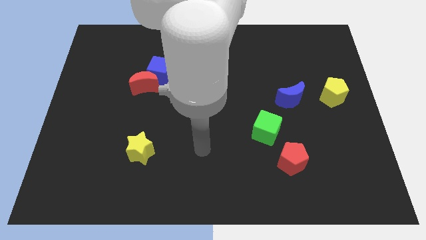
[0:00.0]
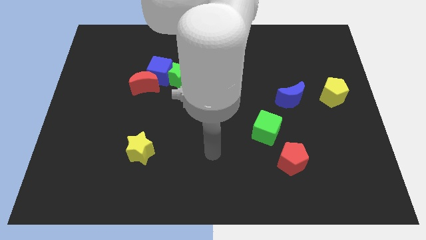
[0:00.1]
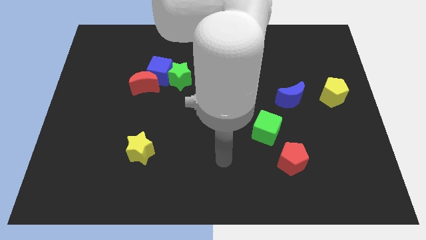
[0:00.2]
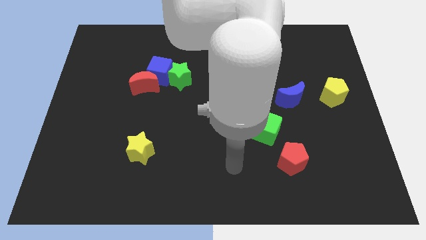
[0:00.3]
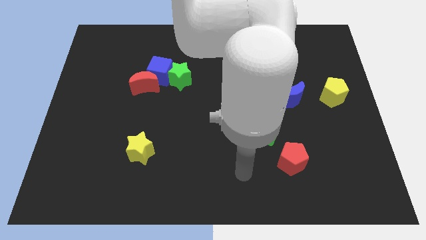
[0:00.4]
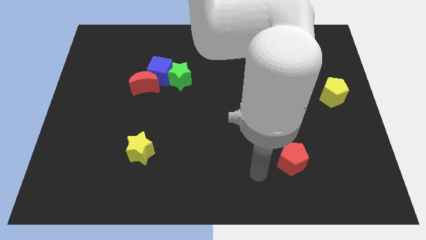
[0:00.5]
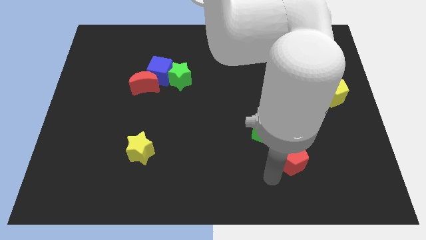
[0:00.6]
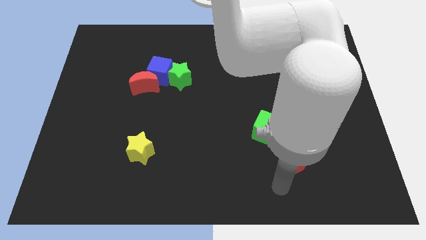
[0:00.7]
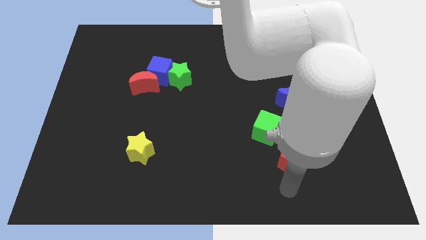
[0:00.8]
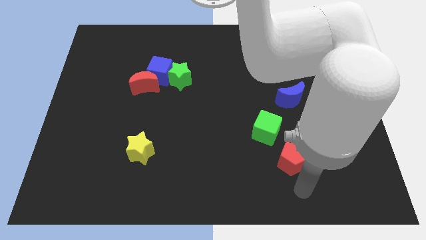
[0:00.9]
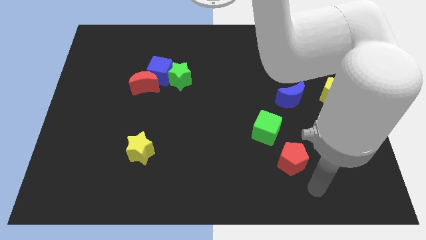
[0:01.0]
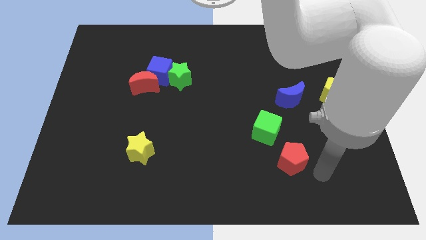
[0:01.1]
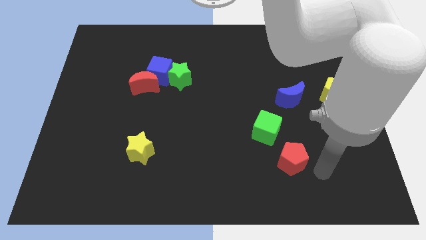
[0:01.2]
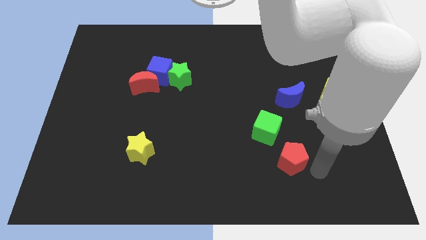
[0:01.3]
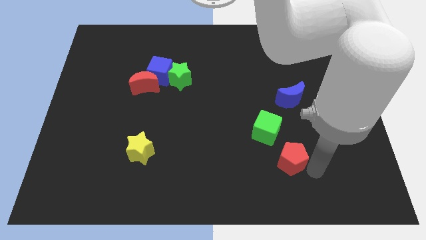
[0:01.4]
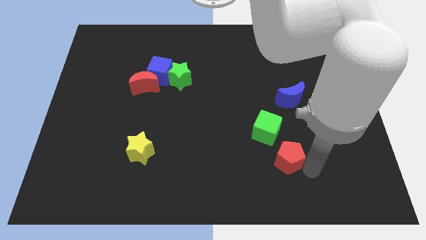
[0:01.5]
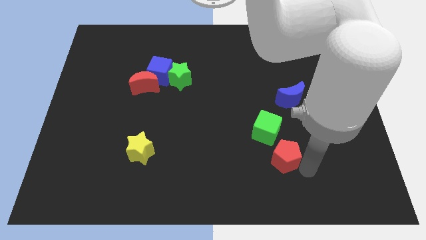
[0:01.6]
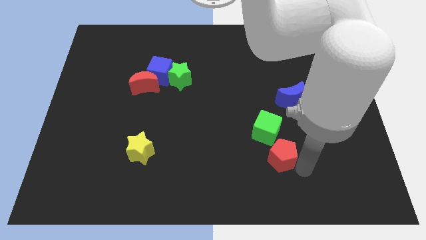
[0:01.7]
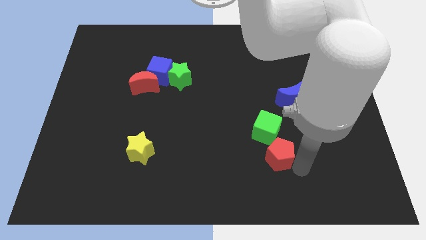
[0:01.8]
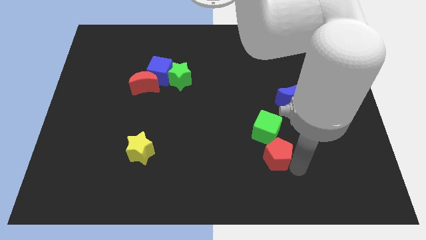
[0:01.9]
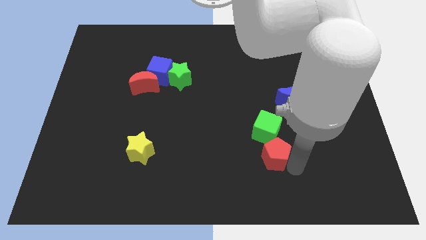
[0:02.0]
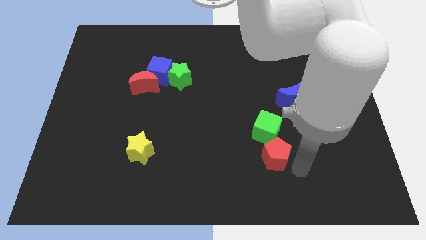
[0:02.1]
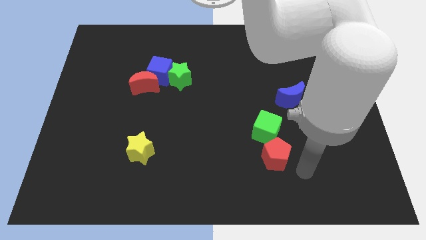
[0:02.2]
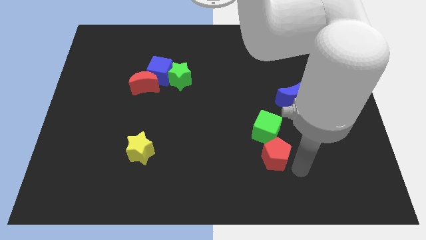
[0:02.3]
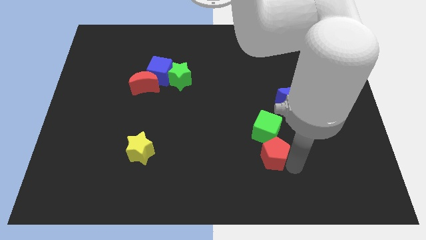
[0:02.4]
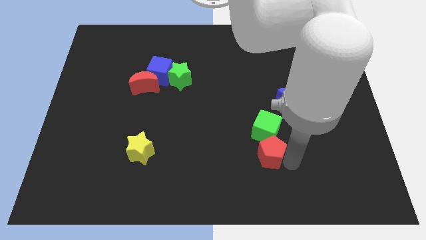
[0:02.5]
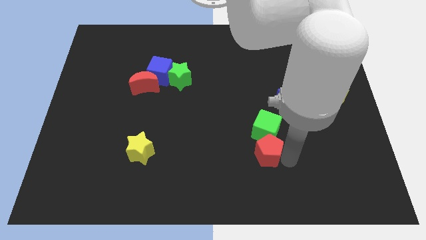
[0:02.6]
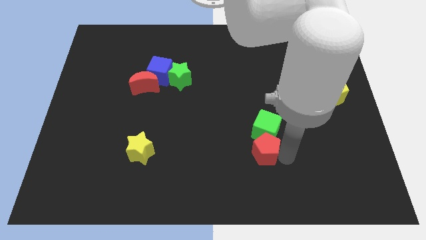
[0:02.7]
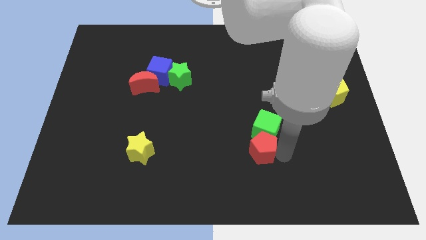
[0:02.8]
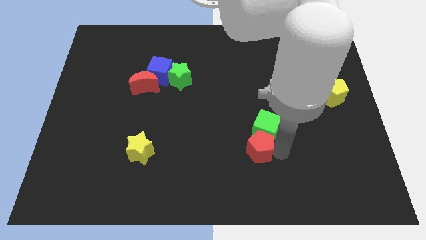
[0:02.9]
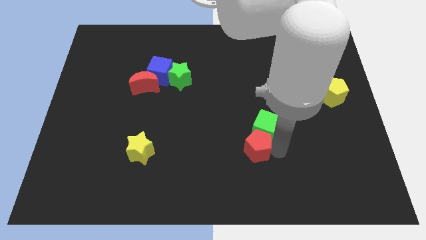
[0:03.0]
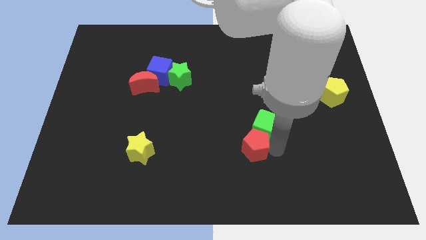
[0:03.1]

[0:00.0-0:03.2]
move the red pentagon to the left a little bit

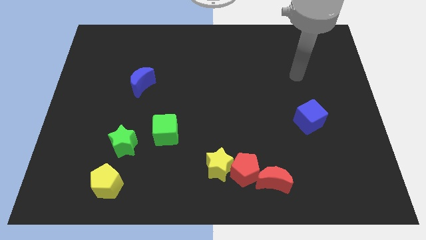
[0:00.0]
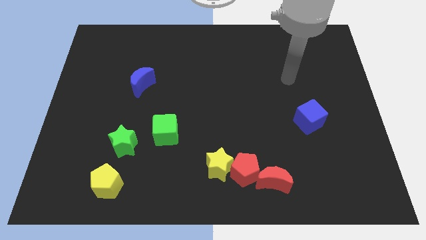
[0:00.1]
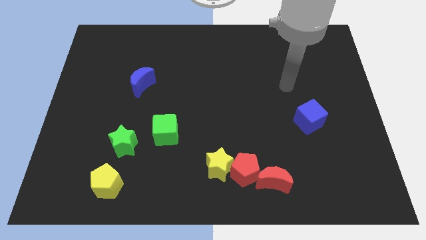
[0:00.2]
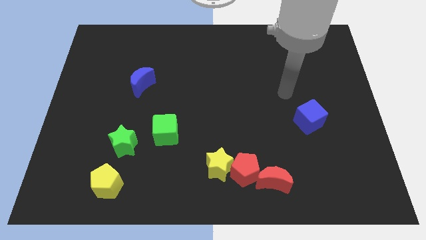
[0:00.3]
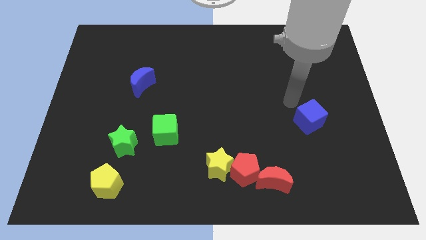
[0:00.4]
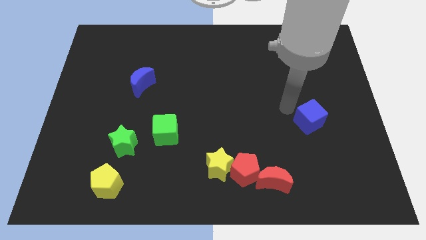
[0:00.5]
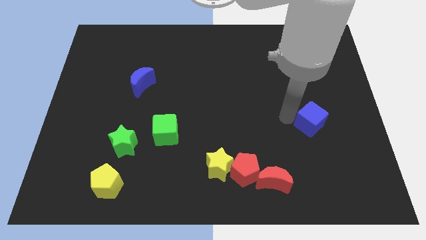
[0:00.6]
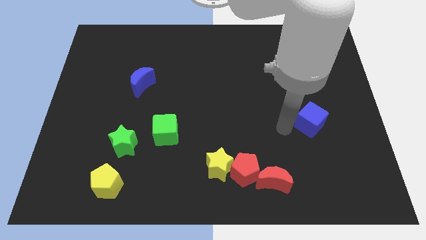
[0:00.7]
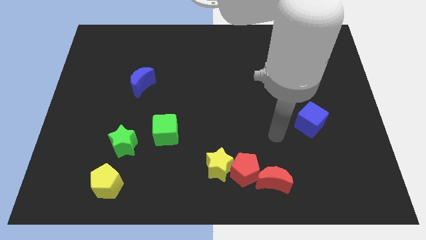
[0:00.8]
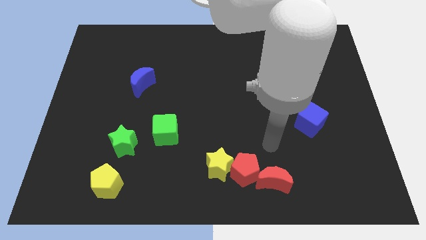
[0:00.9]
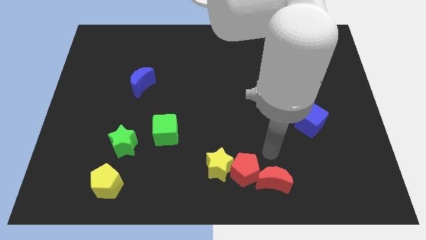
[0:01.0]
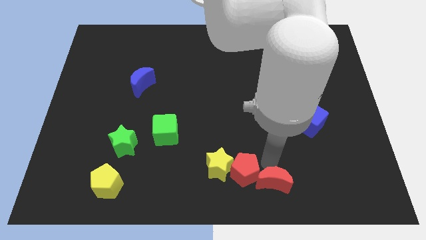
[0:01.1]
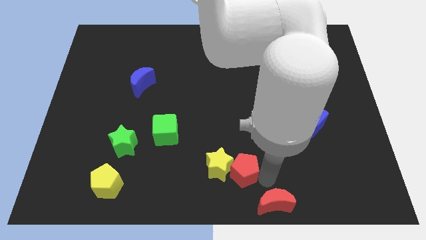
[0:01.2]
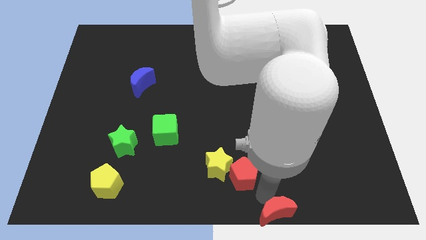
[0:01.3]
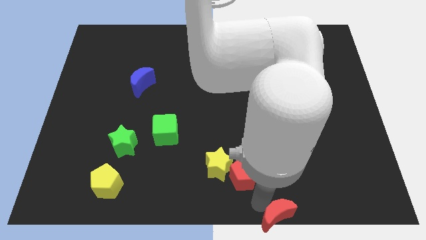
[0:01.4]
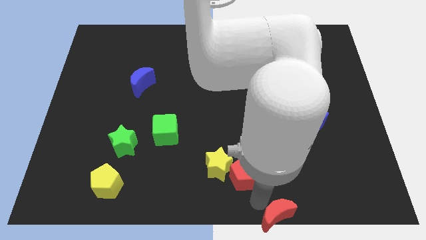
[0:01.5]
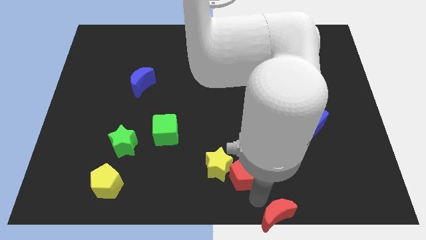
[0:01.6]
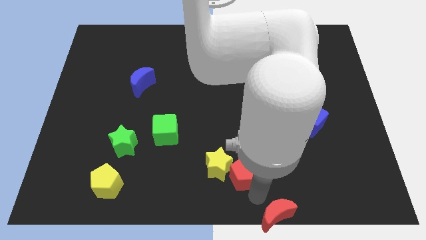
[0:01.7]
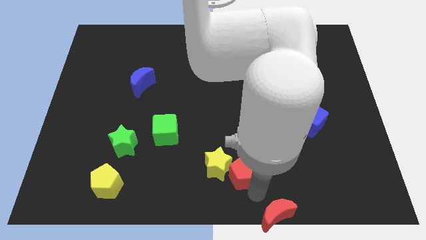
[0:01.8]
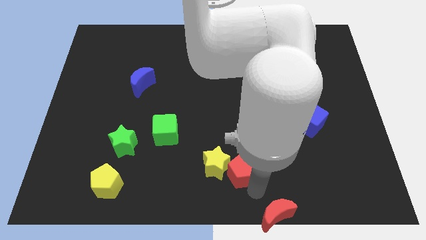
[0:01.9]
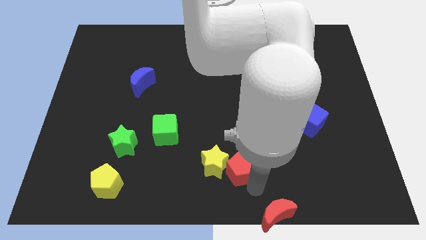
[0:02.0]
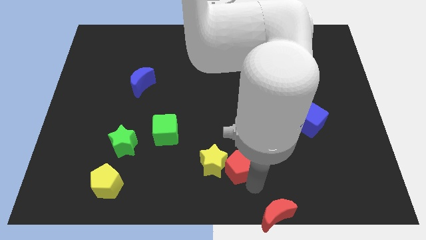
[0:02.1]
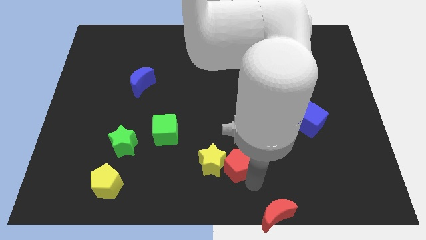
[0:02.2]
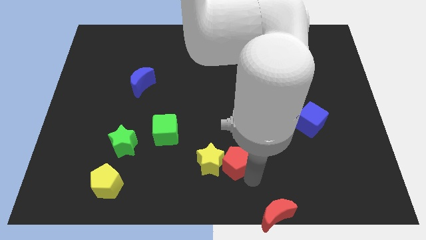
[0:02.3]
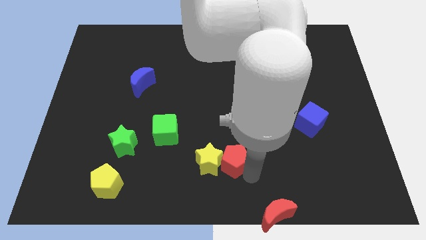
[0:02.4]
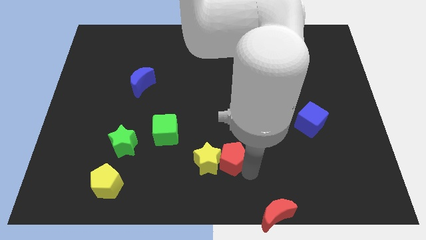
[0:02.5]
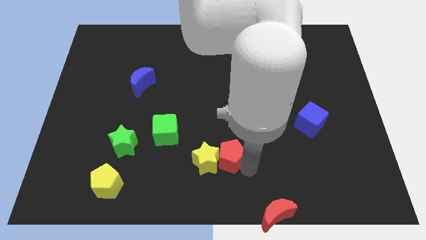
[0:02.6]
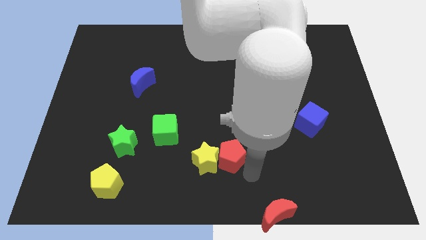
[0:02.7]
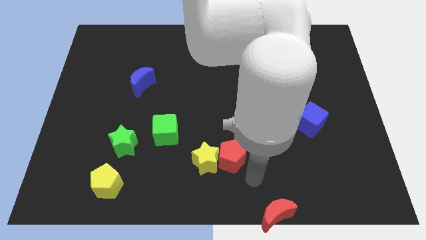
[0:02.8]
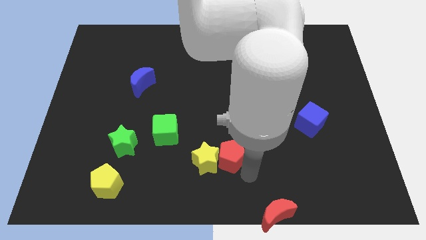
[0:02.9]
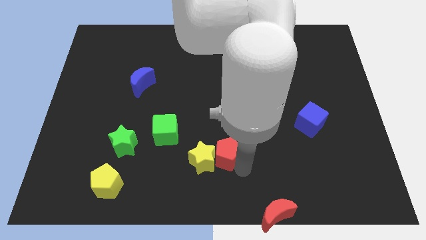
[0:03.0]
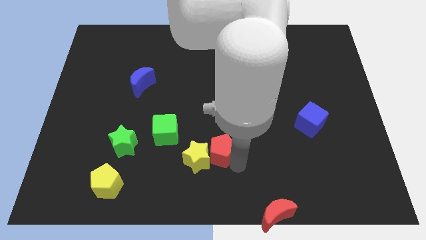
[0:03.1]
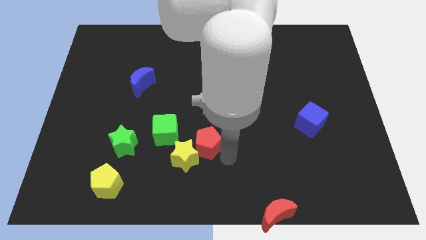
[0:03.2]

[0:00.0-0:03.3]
slightly slide the red pentagon diagonally up and to the left

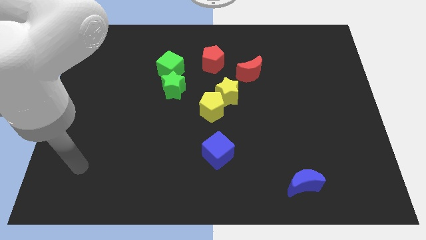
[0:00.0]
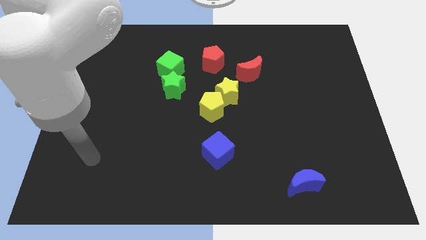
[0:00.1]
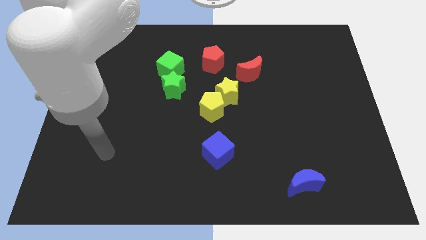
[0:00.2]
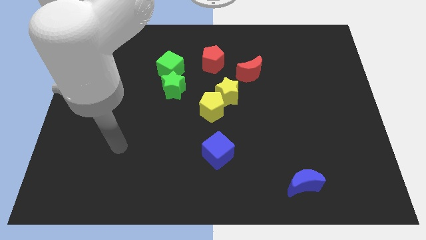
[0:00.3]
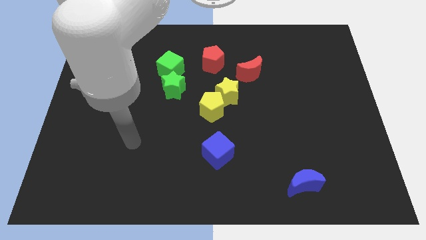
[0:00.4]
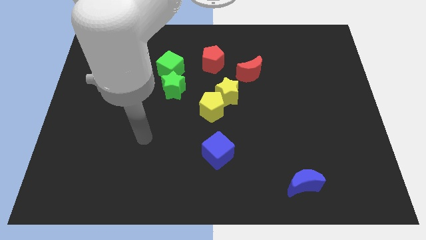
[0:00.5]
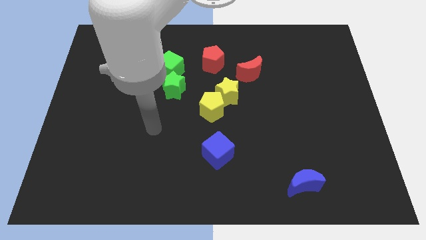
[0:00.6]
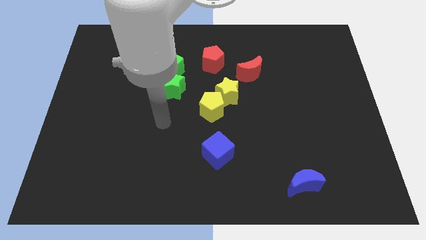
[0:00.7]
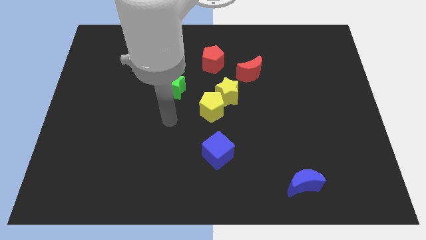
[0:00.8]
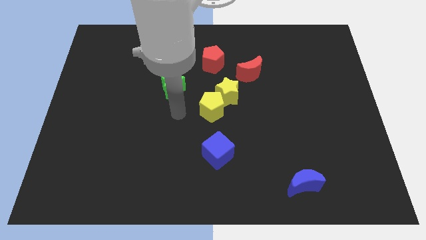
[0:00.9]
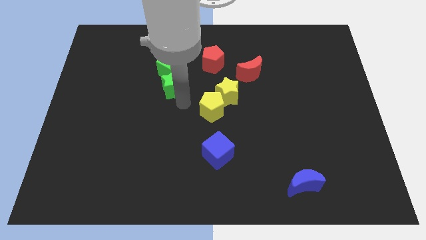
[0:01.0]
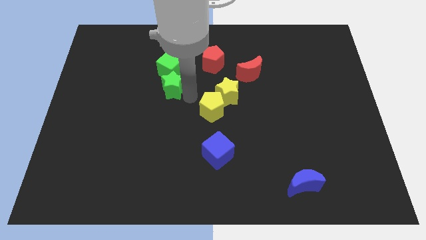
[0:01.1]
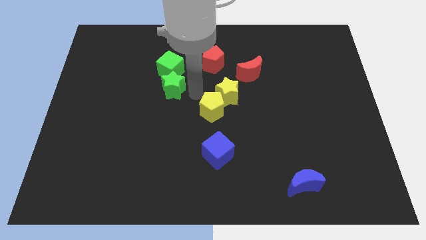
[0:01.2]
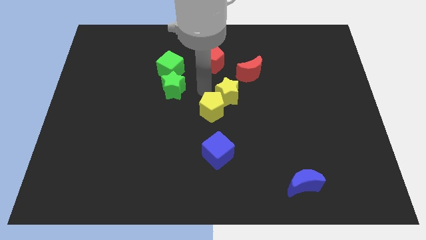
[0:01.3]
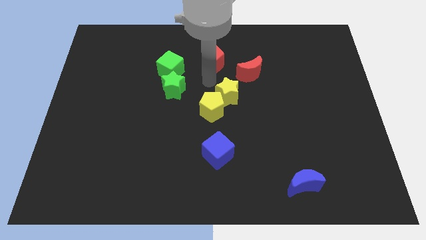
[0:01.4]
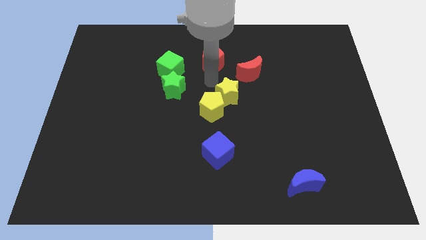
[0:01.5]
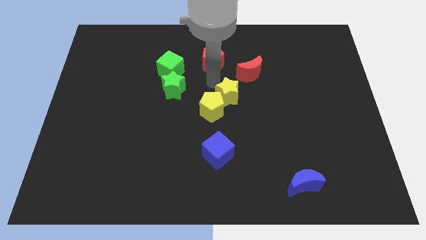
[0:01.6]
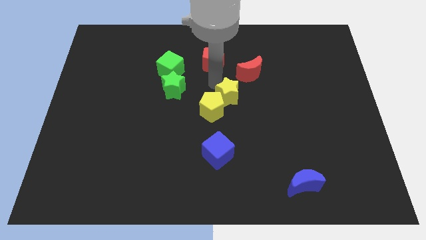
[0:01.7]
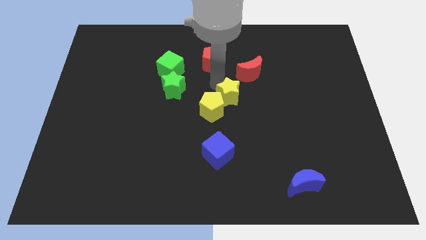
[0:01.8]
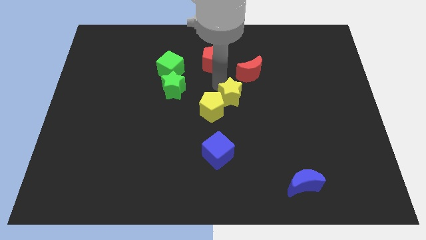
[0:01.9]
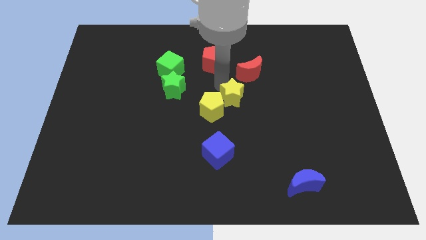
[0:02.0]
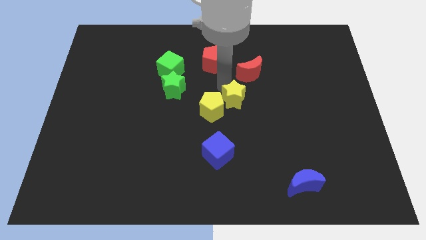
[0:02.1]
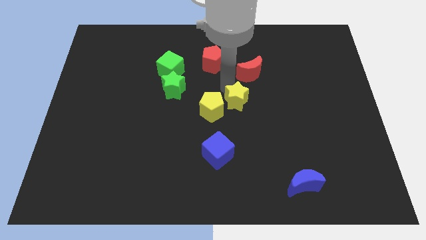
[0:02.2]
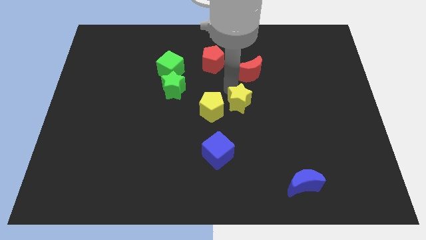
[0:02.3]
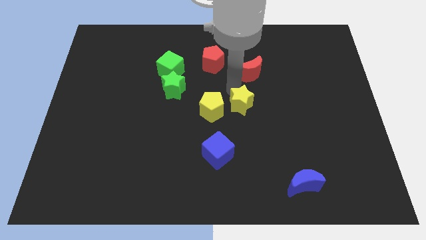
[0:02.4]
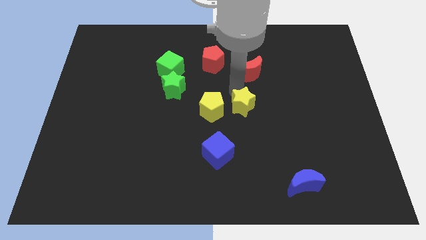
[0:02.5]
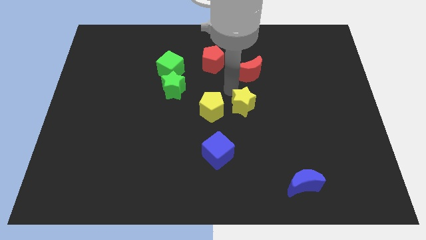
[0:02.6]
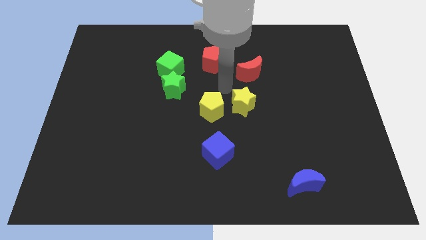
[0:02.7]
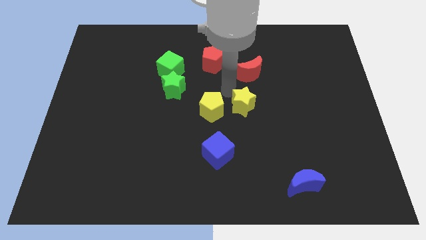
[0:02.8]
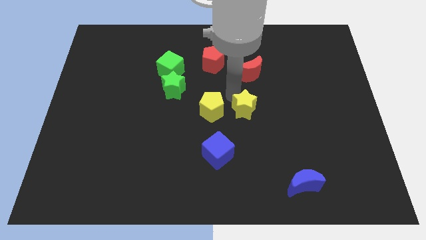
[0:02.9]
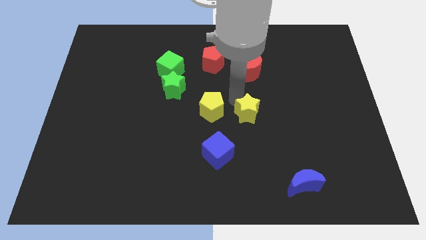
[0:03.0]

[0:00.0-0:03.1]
slightly slide the yellow star diagonally down and right
